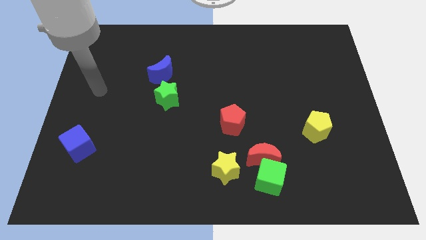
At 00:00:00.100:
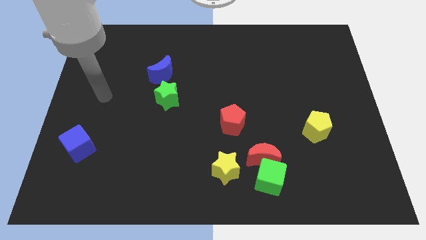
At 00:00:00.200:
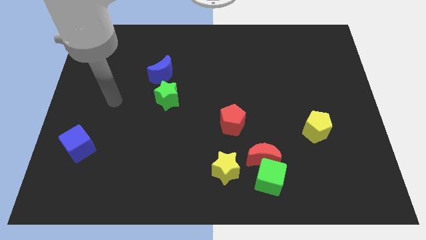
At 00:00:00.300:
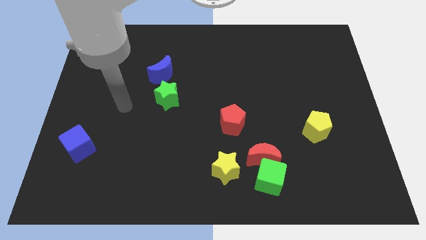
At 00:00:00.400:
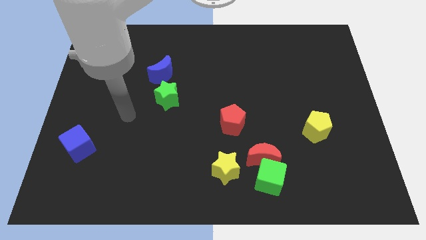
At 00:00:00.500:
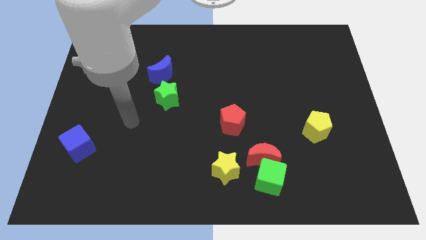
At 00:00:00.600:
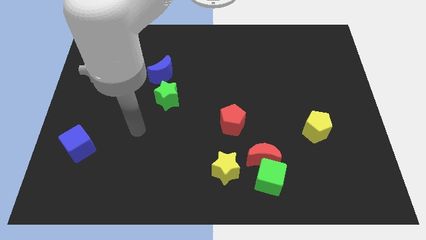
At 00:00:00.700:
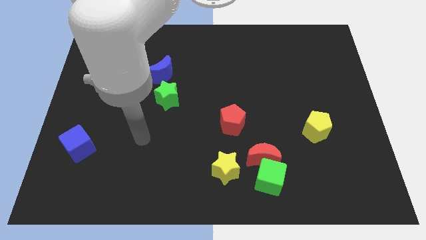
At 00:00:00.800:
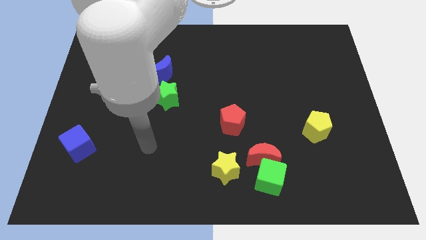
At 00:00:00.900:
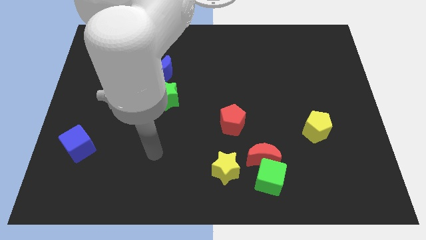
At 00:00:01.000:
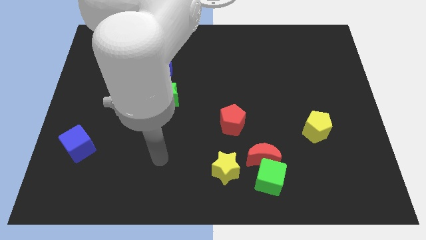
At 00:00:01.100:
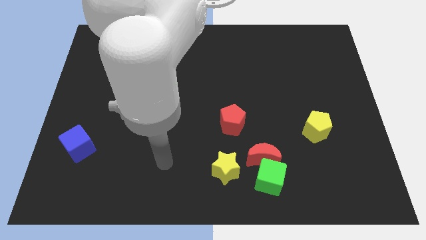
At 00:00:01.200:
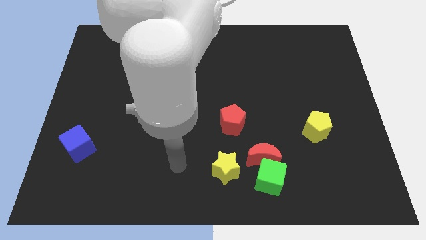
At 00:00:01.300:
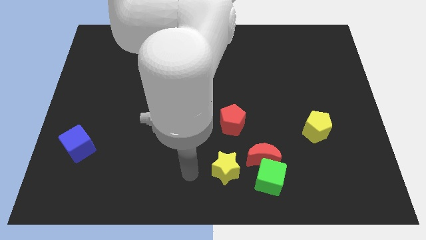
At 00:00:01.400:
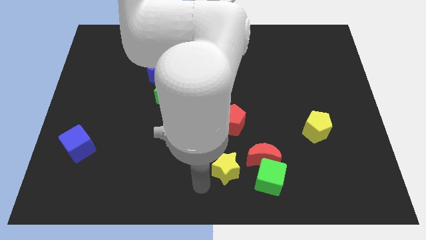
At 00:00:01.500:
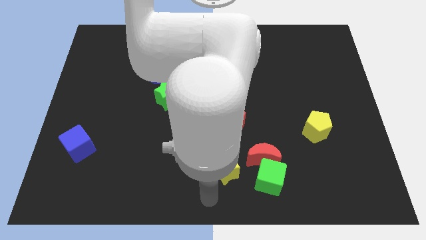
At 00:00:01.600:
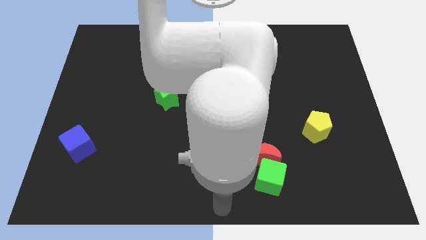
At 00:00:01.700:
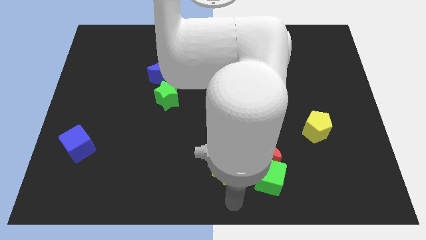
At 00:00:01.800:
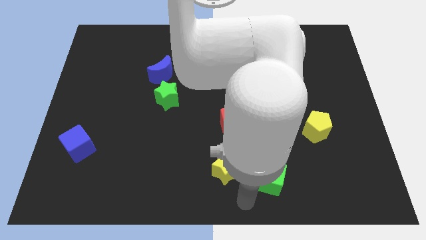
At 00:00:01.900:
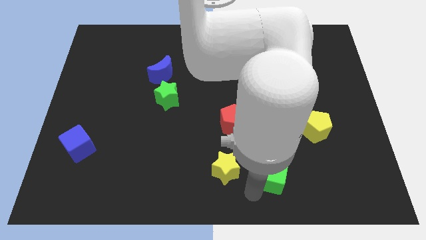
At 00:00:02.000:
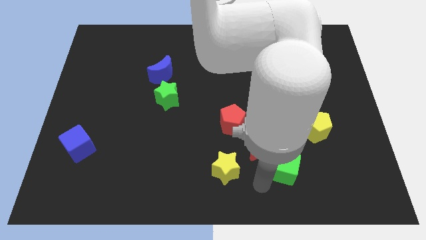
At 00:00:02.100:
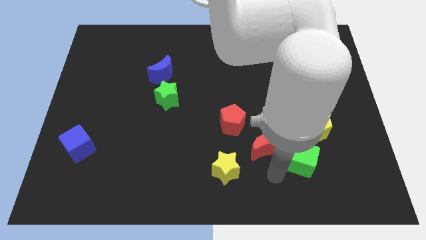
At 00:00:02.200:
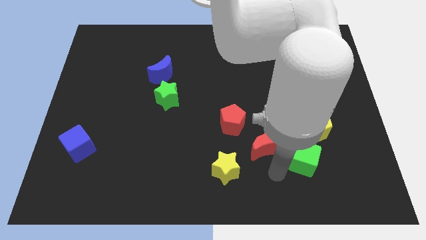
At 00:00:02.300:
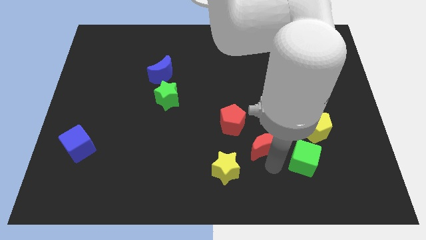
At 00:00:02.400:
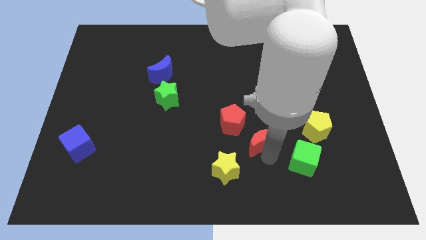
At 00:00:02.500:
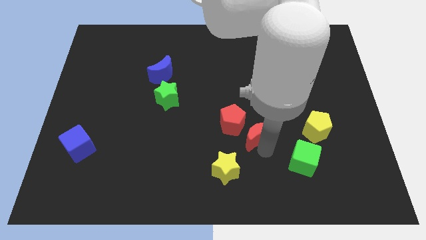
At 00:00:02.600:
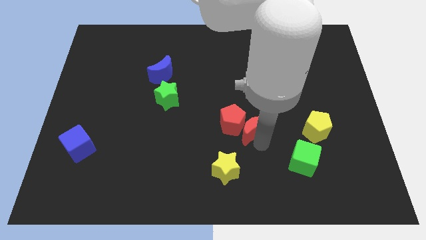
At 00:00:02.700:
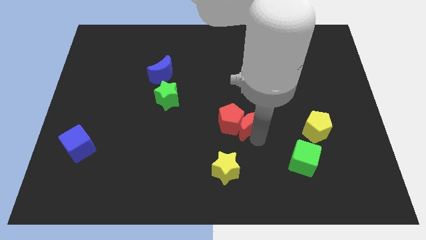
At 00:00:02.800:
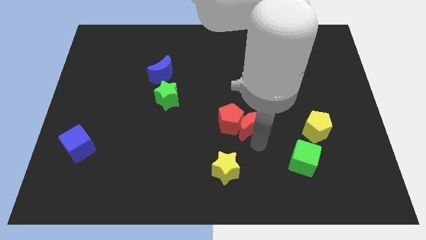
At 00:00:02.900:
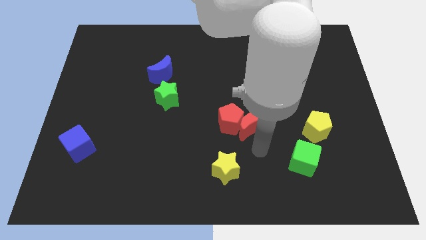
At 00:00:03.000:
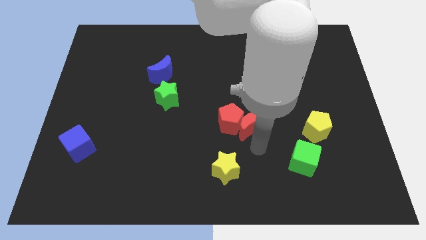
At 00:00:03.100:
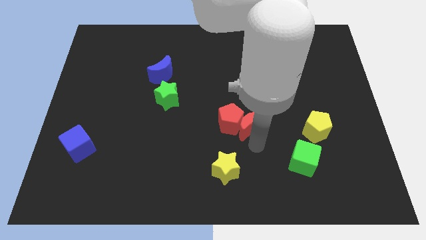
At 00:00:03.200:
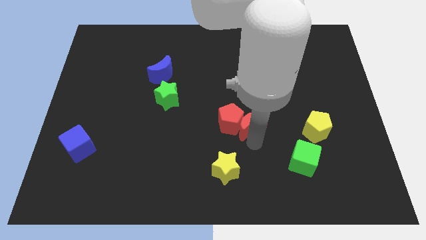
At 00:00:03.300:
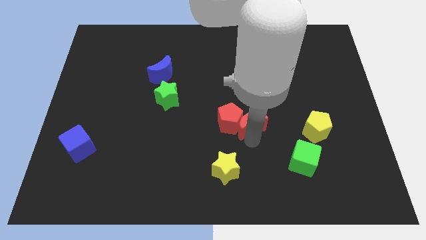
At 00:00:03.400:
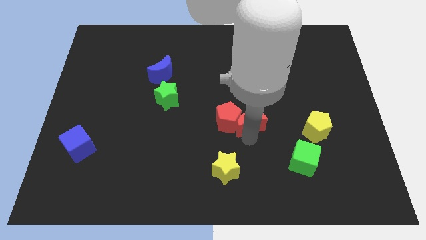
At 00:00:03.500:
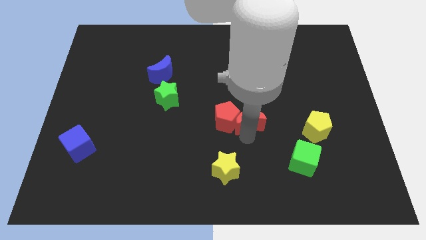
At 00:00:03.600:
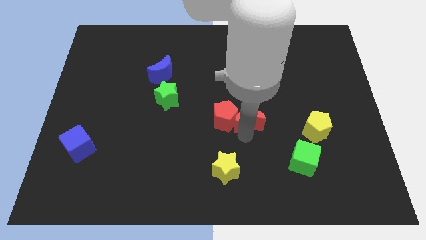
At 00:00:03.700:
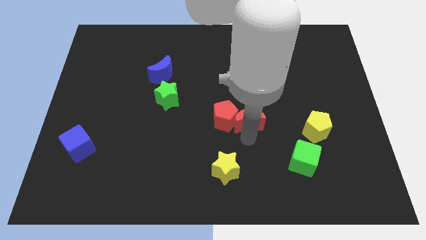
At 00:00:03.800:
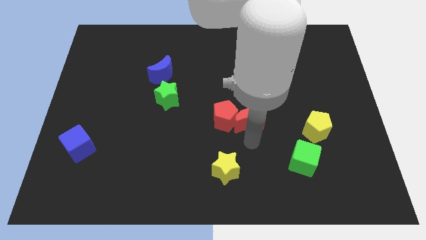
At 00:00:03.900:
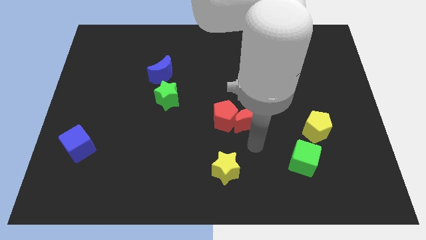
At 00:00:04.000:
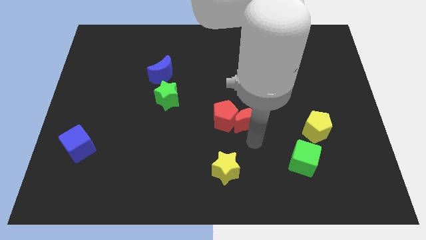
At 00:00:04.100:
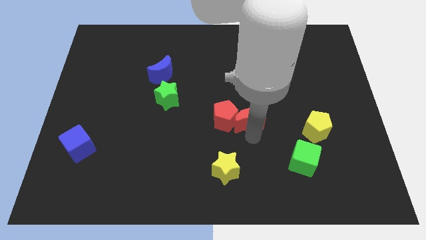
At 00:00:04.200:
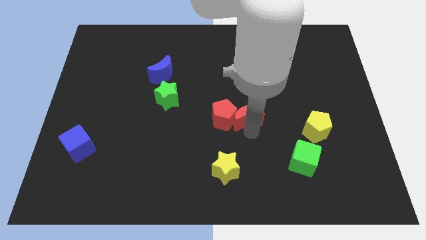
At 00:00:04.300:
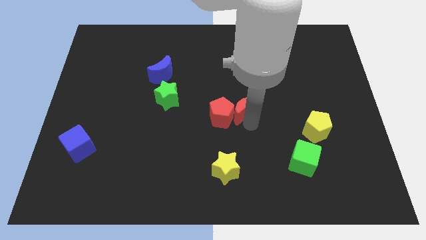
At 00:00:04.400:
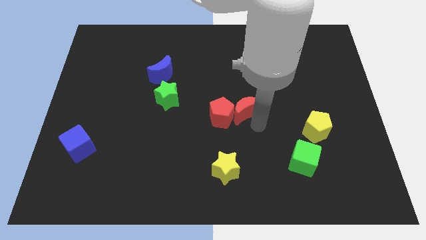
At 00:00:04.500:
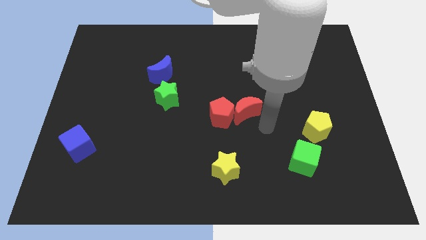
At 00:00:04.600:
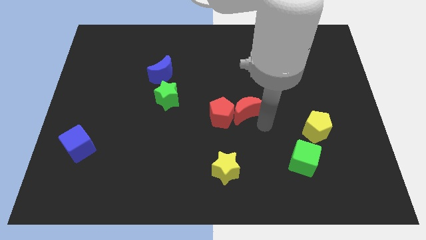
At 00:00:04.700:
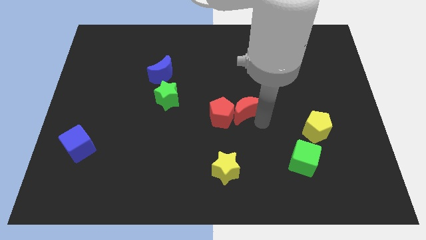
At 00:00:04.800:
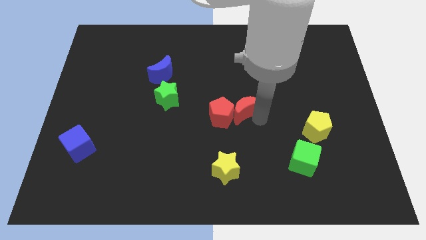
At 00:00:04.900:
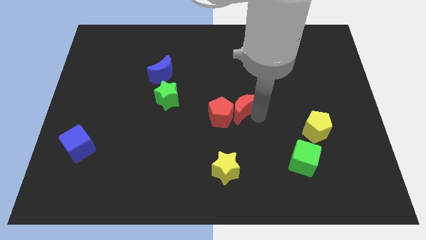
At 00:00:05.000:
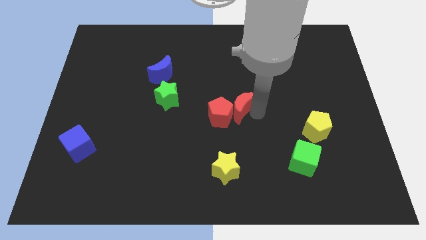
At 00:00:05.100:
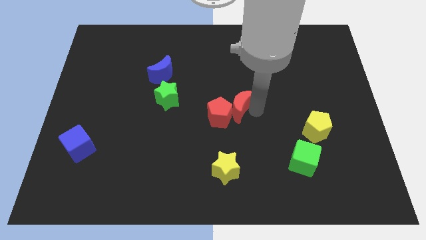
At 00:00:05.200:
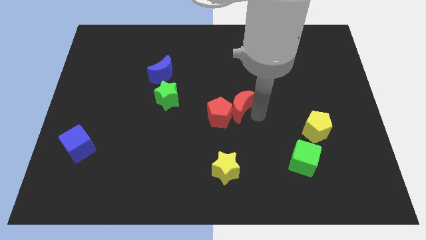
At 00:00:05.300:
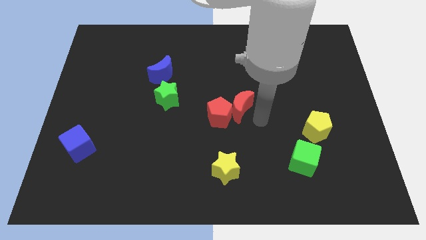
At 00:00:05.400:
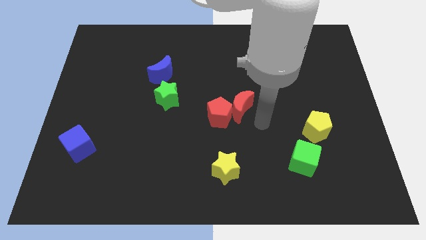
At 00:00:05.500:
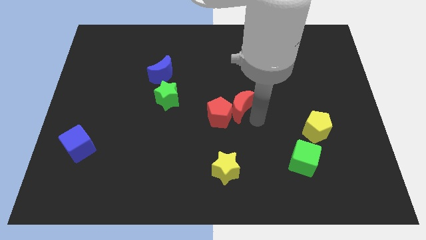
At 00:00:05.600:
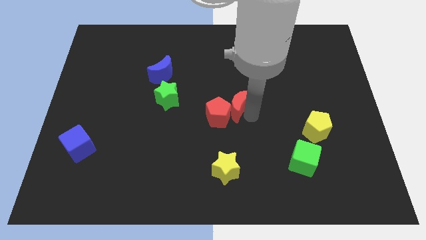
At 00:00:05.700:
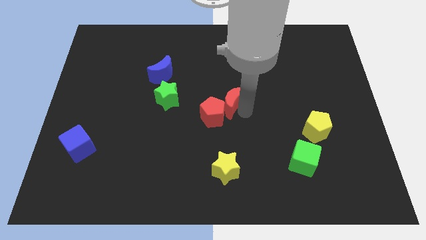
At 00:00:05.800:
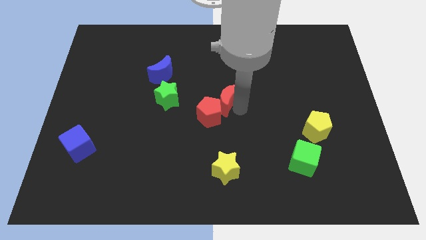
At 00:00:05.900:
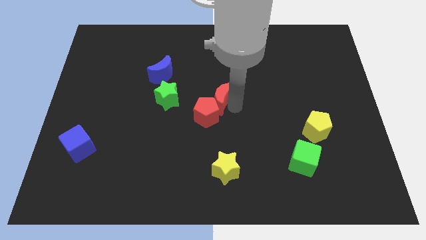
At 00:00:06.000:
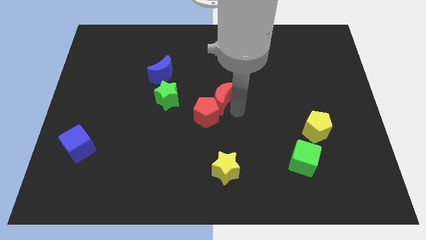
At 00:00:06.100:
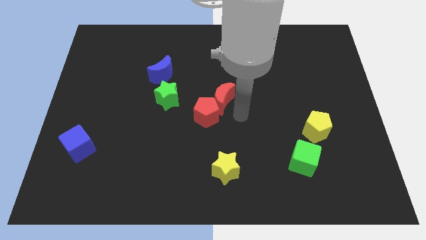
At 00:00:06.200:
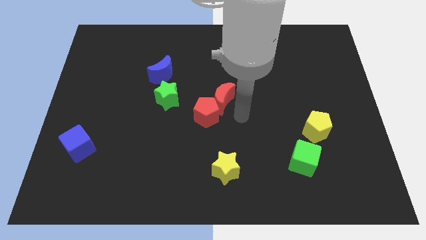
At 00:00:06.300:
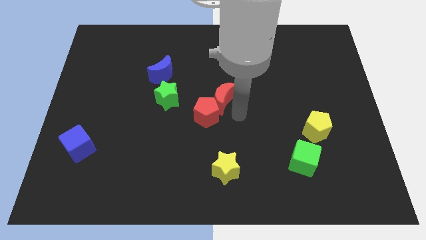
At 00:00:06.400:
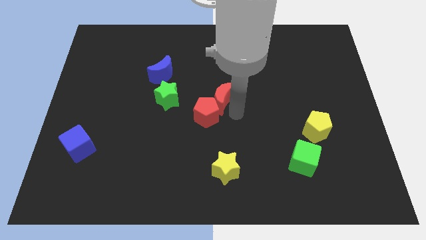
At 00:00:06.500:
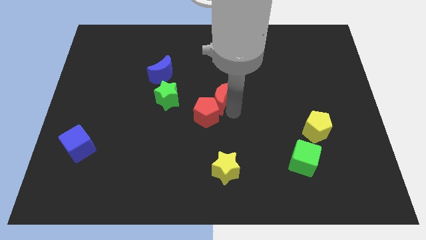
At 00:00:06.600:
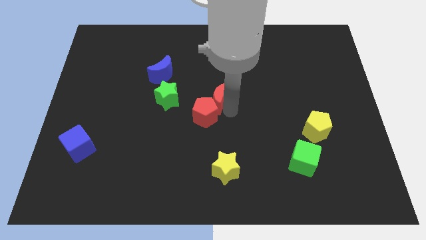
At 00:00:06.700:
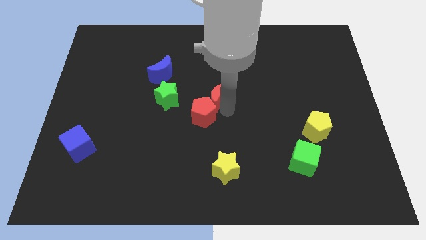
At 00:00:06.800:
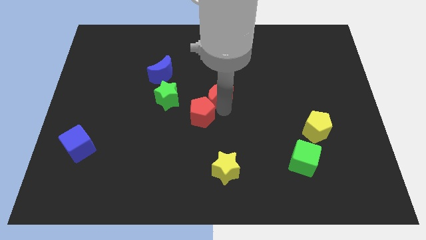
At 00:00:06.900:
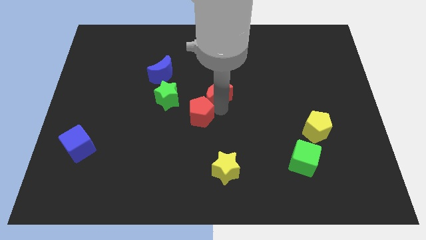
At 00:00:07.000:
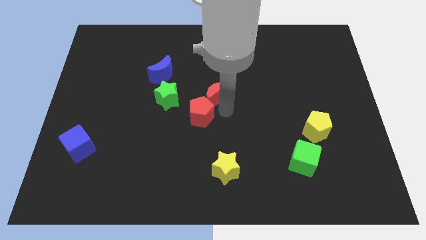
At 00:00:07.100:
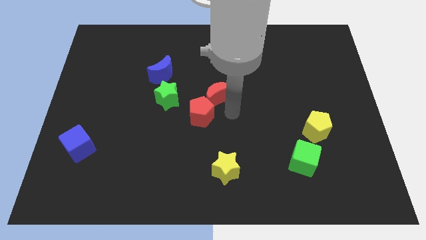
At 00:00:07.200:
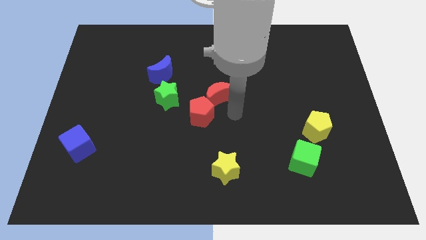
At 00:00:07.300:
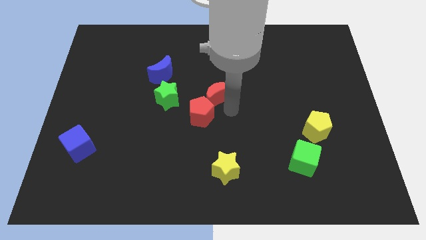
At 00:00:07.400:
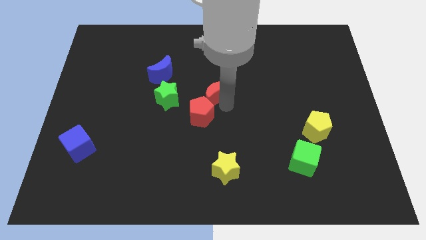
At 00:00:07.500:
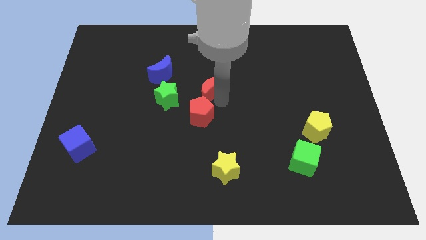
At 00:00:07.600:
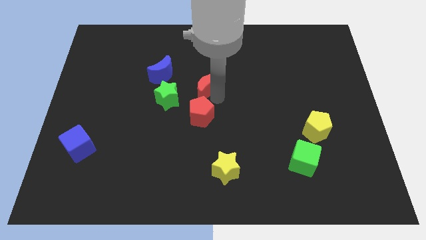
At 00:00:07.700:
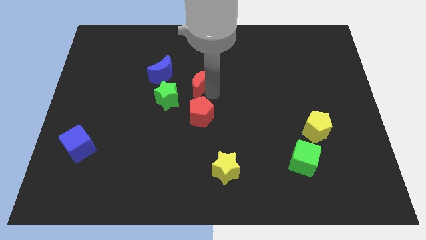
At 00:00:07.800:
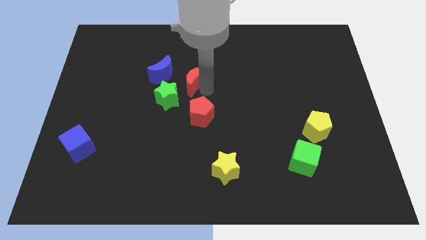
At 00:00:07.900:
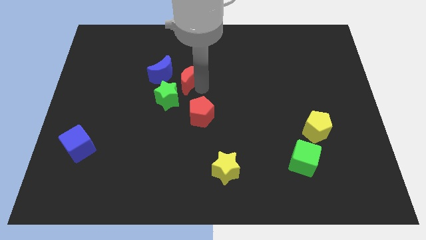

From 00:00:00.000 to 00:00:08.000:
slide the red moon above the green star
